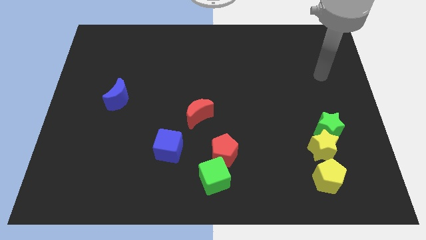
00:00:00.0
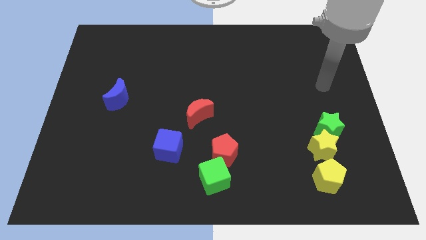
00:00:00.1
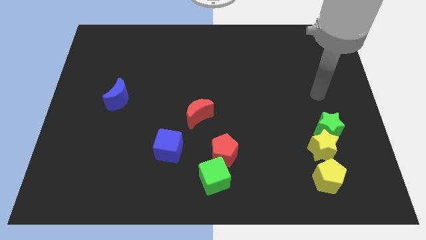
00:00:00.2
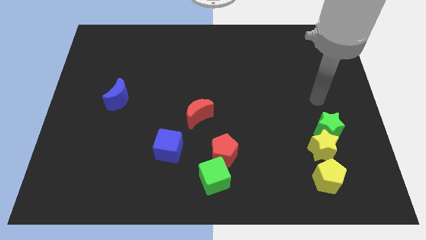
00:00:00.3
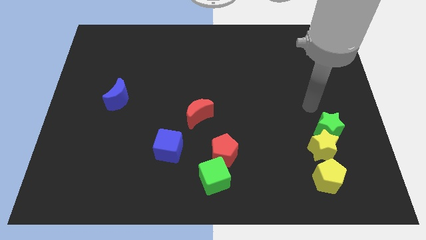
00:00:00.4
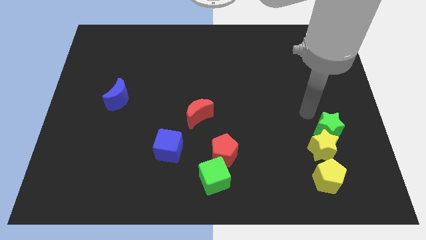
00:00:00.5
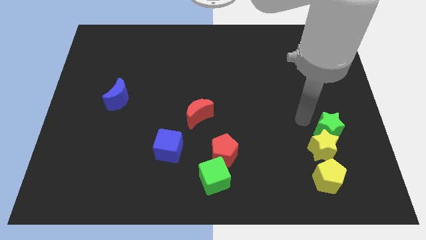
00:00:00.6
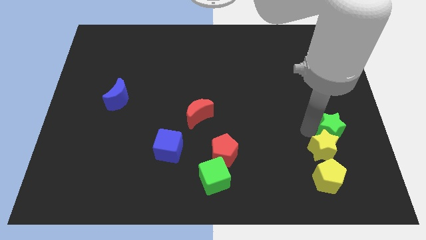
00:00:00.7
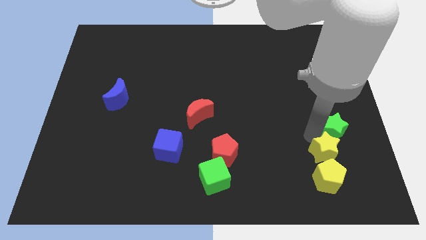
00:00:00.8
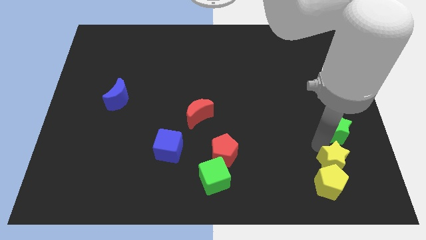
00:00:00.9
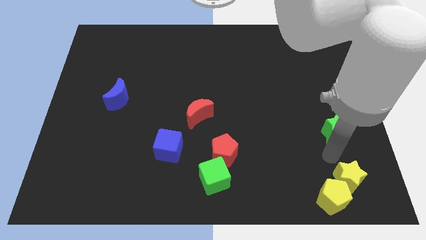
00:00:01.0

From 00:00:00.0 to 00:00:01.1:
separate the green star from the yellow star

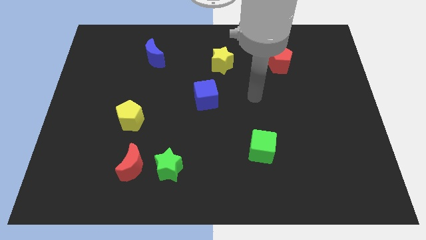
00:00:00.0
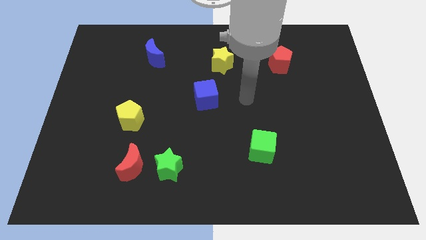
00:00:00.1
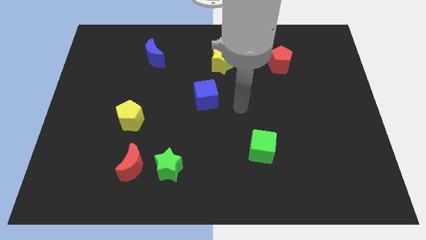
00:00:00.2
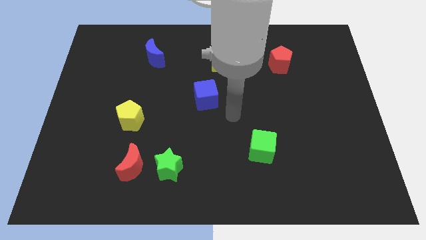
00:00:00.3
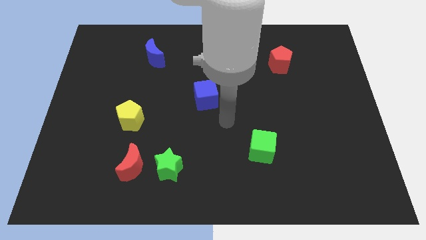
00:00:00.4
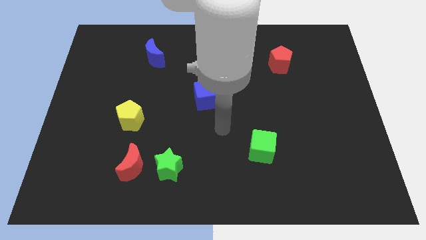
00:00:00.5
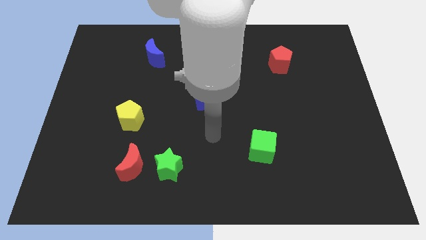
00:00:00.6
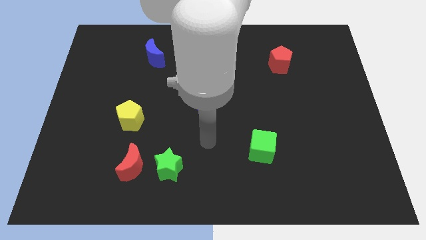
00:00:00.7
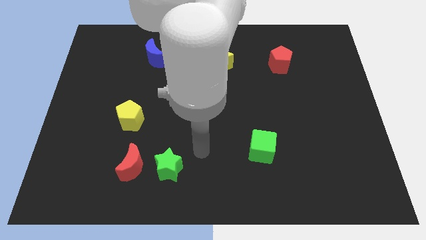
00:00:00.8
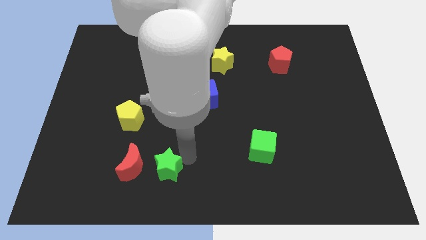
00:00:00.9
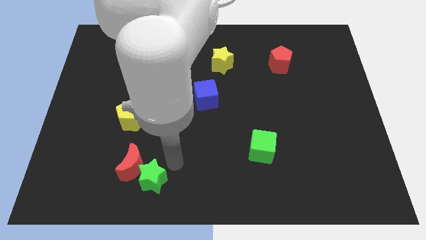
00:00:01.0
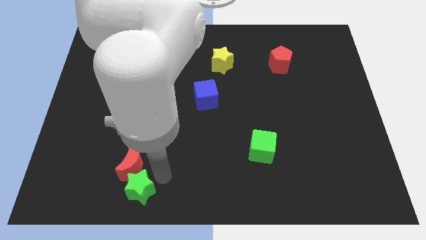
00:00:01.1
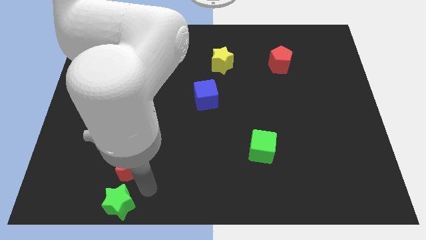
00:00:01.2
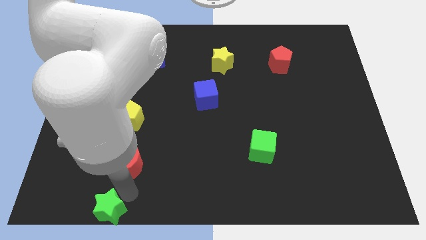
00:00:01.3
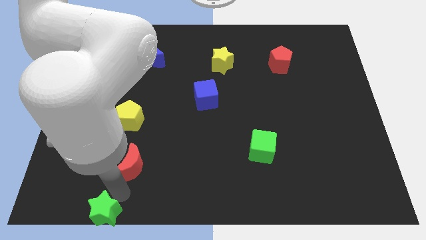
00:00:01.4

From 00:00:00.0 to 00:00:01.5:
pull the red moon apart from the green star

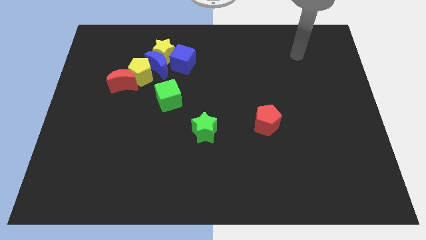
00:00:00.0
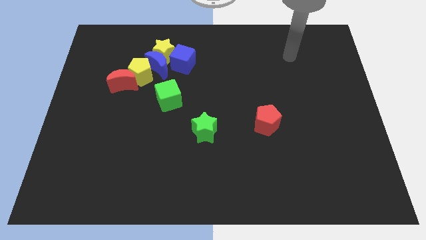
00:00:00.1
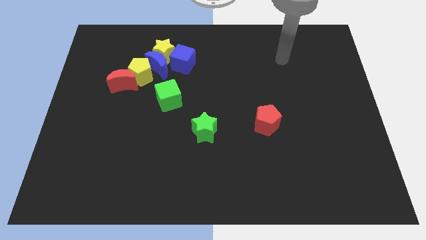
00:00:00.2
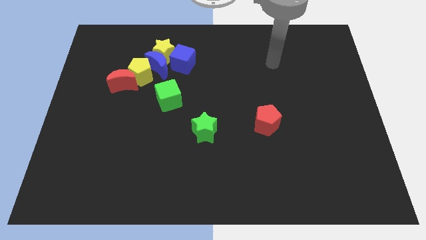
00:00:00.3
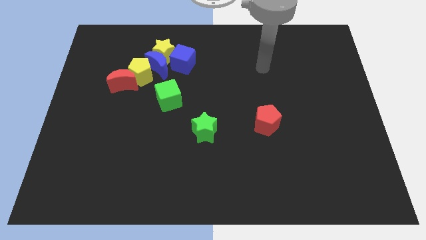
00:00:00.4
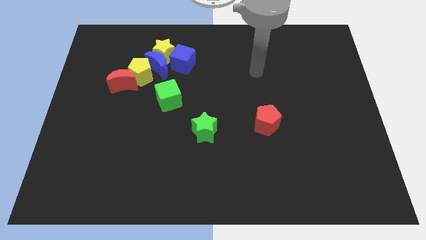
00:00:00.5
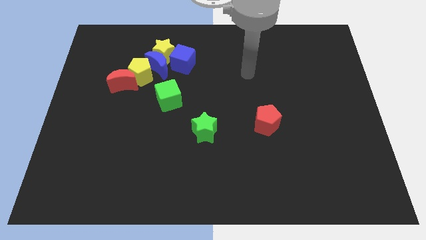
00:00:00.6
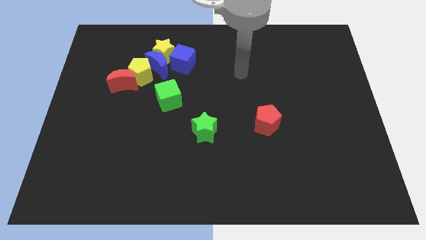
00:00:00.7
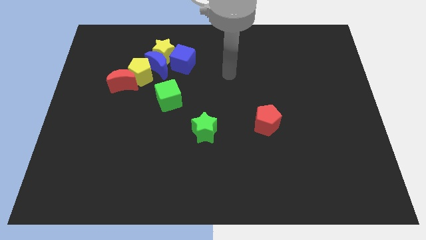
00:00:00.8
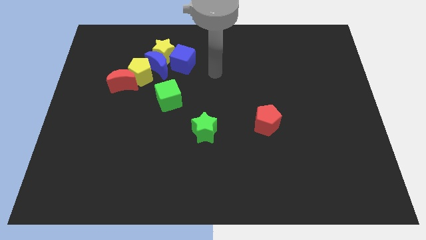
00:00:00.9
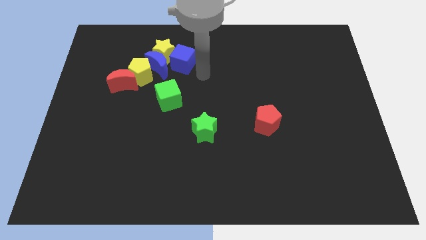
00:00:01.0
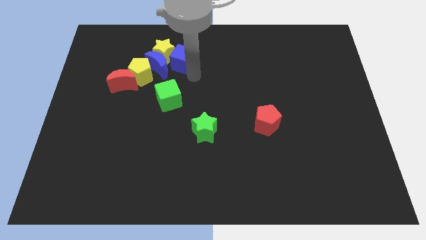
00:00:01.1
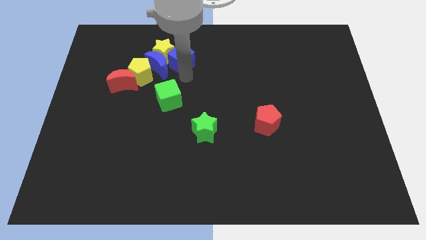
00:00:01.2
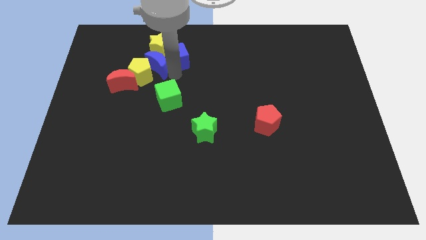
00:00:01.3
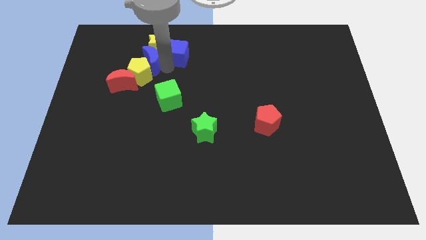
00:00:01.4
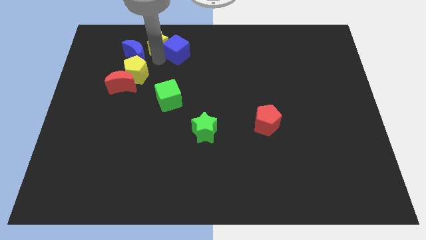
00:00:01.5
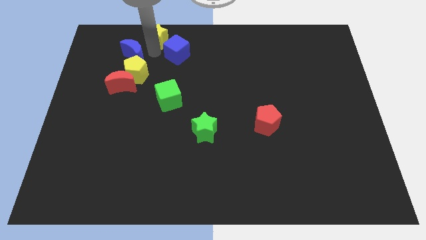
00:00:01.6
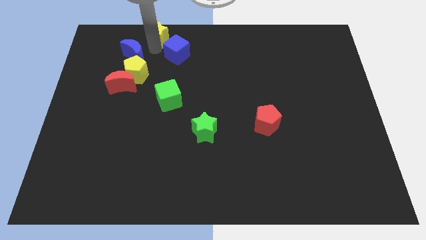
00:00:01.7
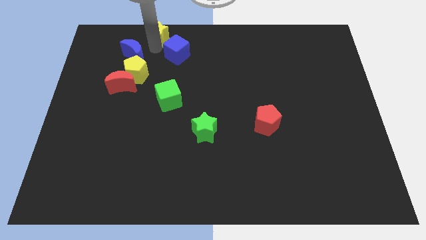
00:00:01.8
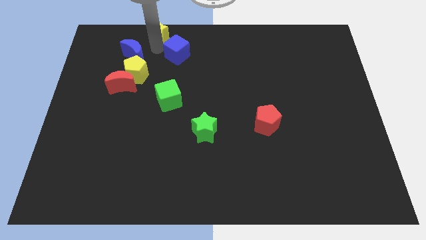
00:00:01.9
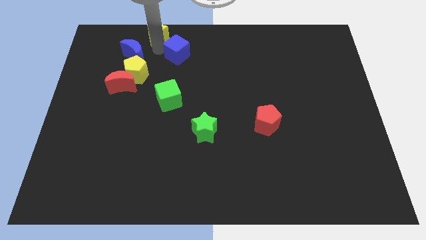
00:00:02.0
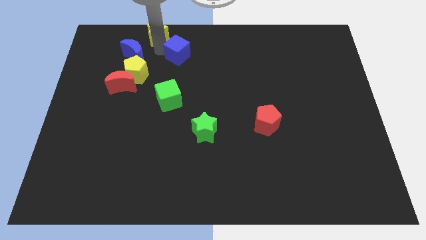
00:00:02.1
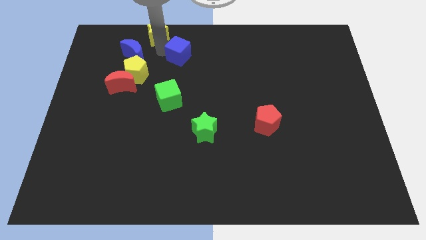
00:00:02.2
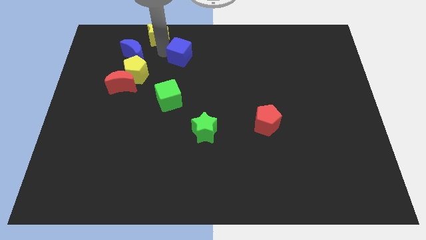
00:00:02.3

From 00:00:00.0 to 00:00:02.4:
move the blue cube away from the yellow star and blue moon

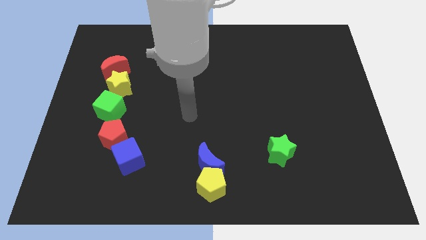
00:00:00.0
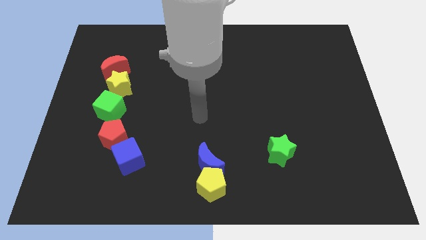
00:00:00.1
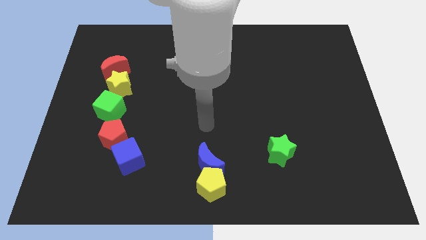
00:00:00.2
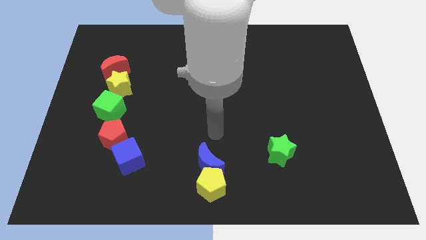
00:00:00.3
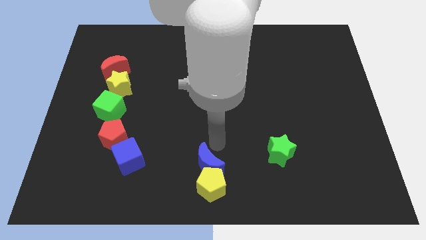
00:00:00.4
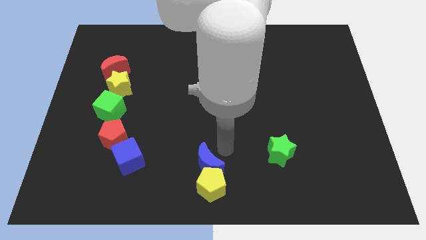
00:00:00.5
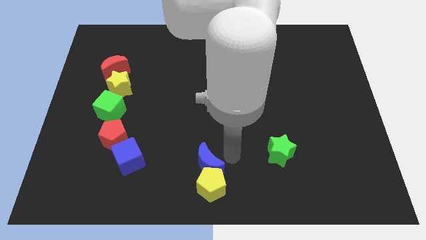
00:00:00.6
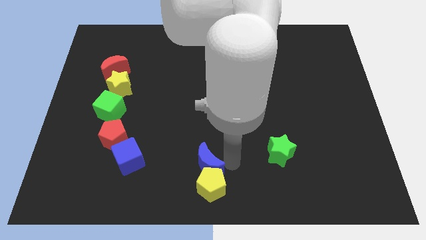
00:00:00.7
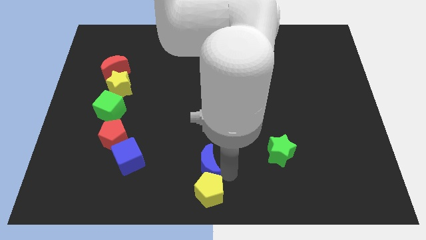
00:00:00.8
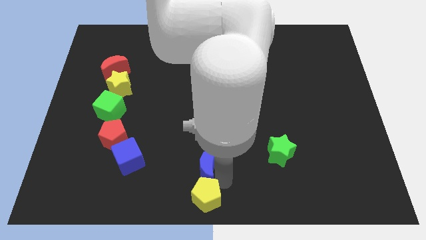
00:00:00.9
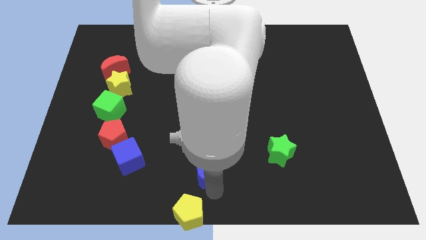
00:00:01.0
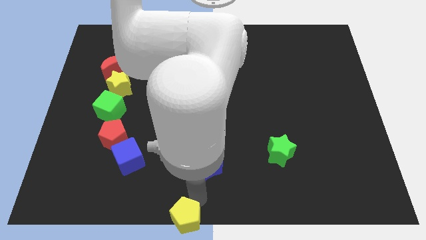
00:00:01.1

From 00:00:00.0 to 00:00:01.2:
move the blue moon away from the yellow pentagon

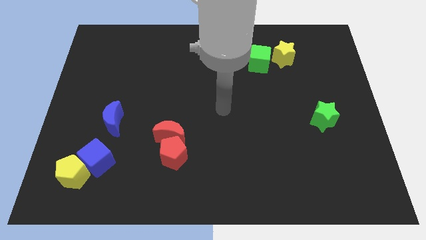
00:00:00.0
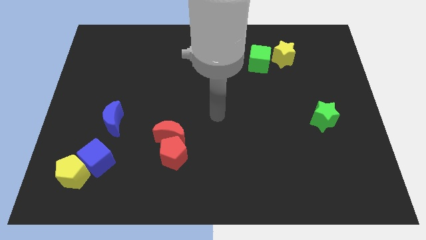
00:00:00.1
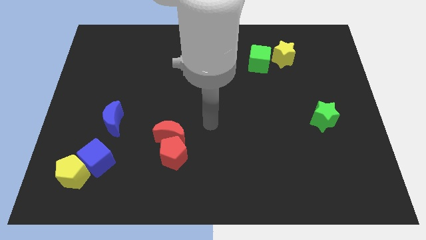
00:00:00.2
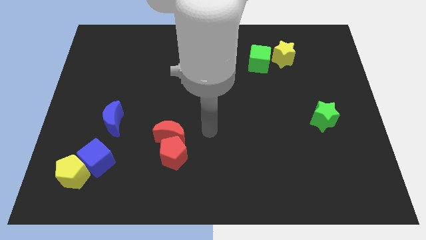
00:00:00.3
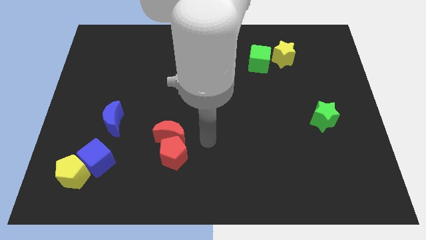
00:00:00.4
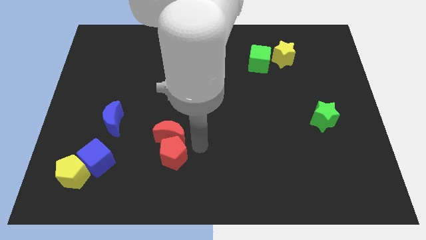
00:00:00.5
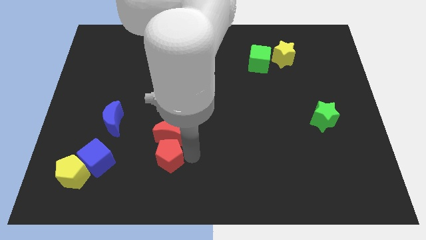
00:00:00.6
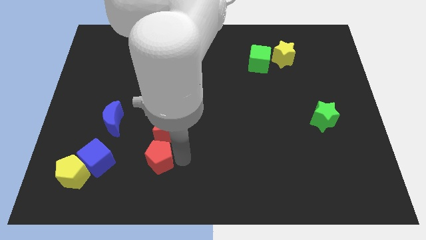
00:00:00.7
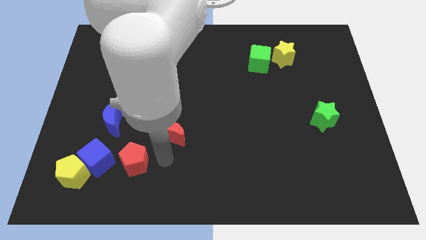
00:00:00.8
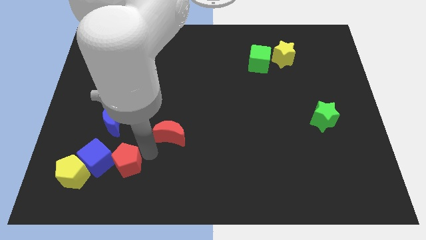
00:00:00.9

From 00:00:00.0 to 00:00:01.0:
move the red moon away from the red pentagon

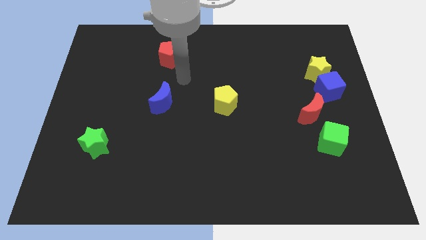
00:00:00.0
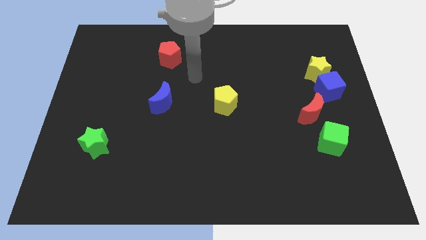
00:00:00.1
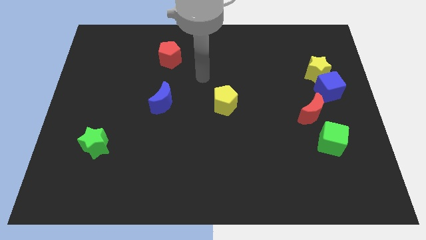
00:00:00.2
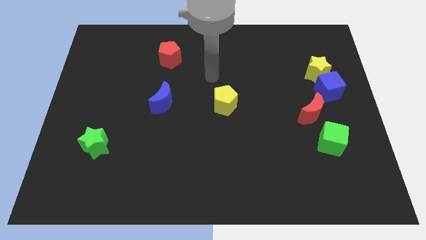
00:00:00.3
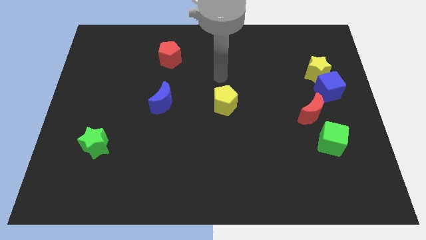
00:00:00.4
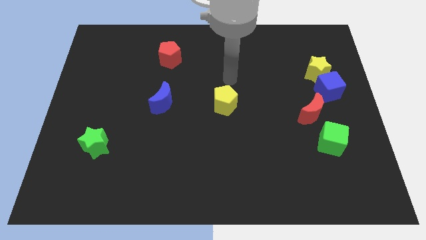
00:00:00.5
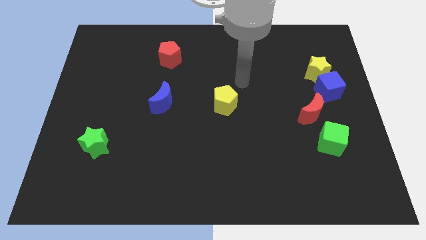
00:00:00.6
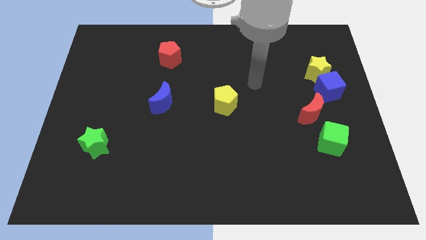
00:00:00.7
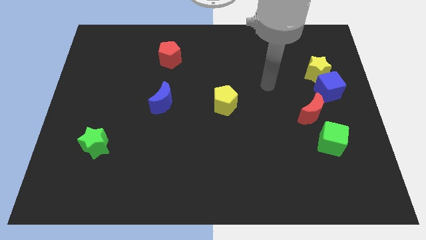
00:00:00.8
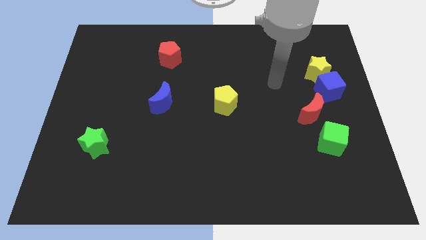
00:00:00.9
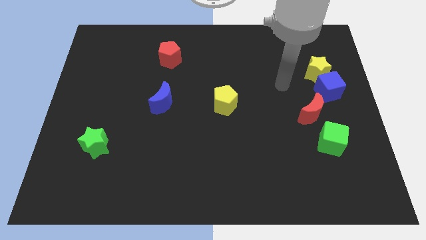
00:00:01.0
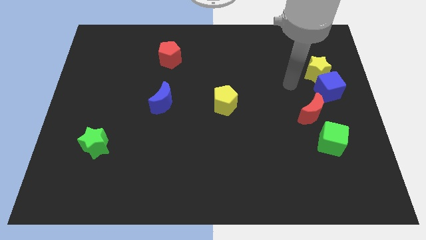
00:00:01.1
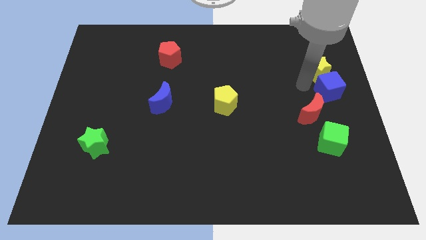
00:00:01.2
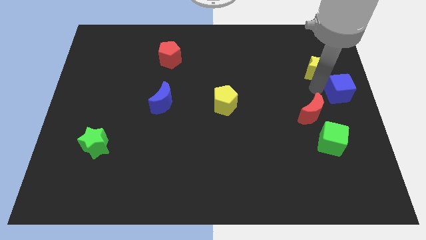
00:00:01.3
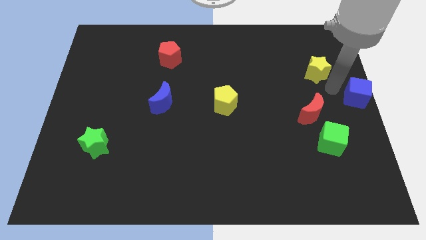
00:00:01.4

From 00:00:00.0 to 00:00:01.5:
separate the yellow star from the blue cube

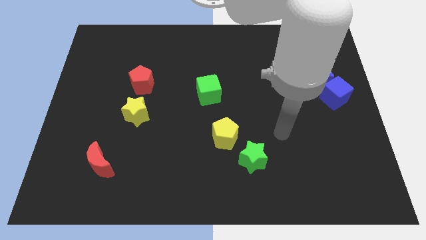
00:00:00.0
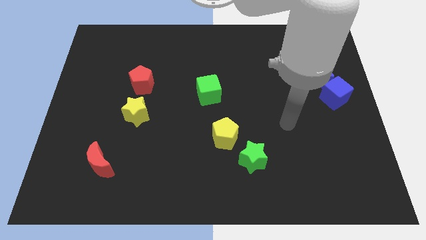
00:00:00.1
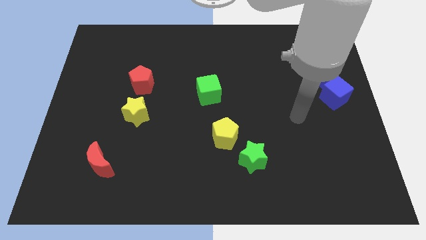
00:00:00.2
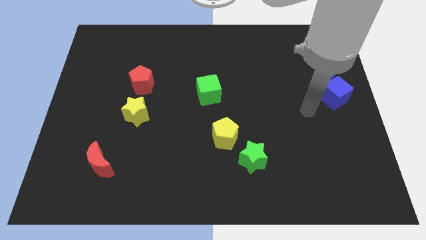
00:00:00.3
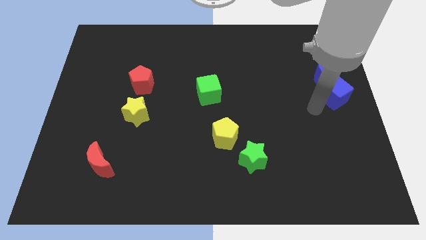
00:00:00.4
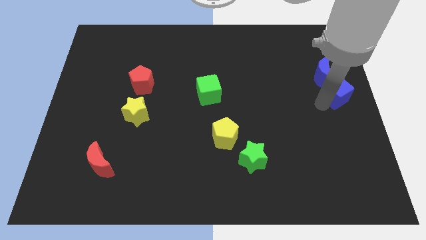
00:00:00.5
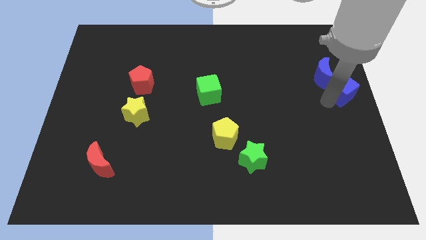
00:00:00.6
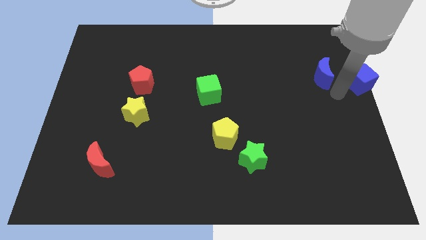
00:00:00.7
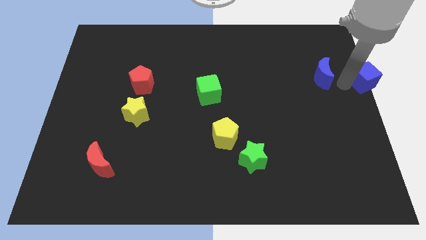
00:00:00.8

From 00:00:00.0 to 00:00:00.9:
separate the blue moon from the blue cube
